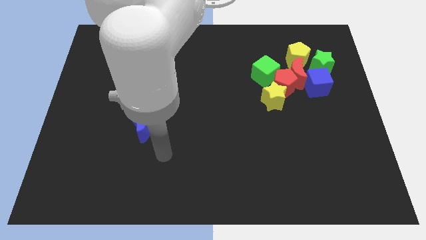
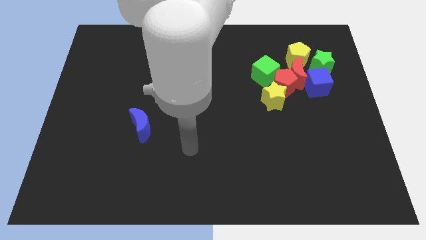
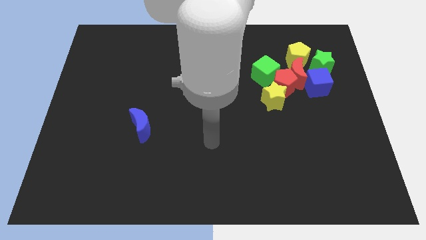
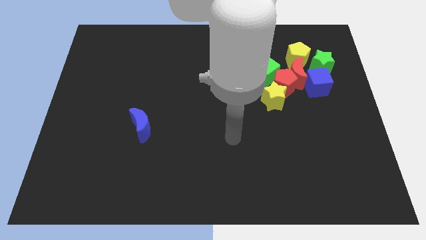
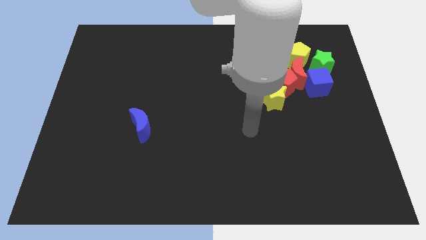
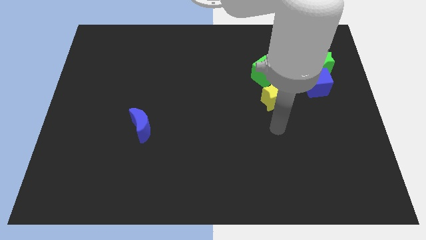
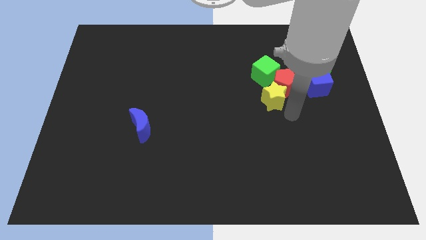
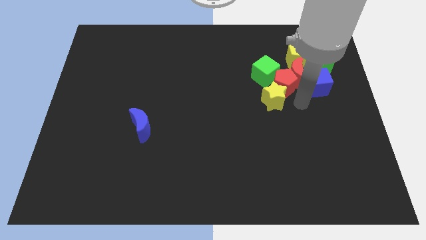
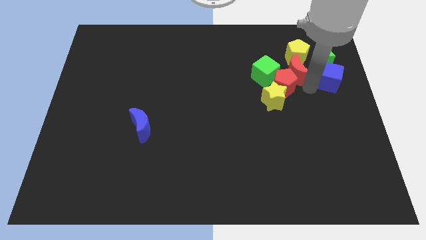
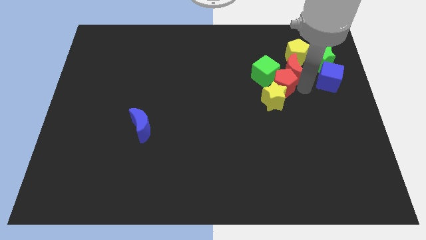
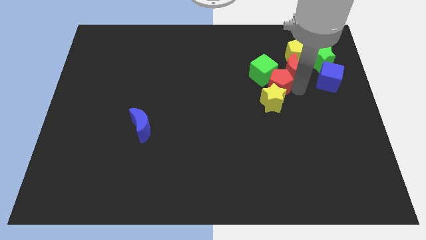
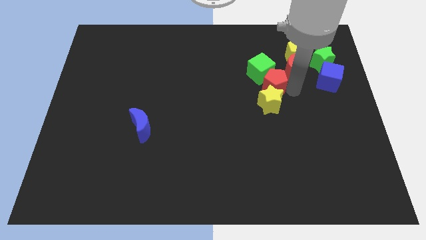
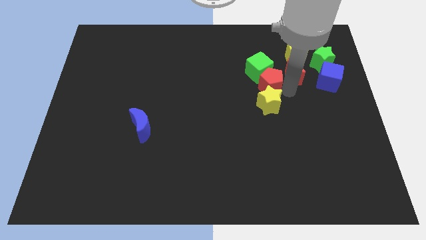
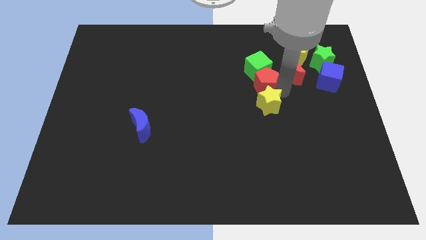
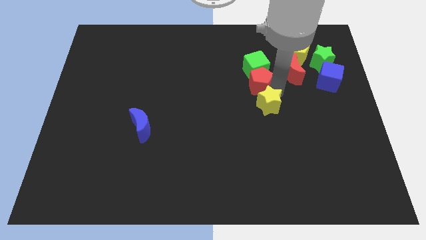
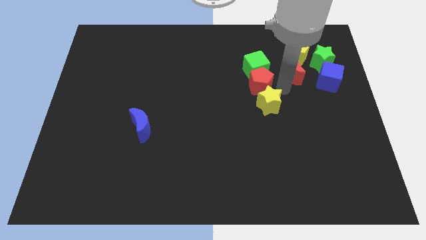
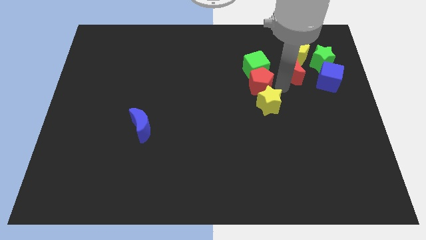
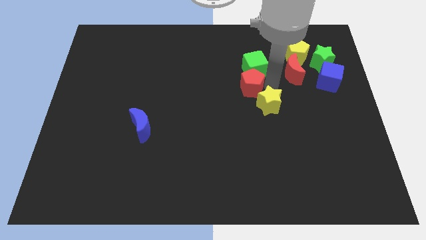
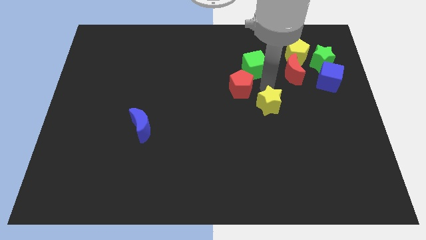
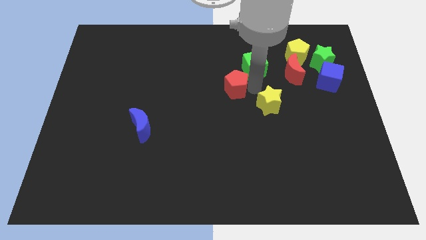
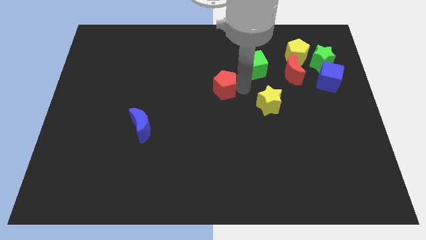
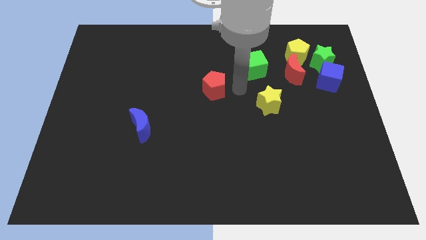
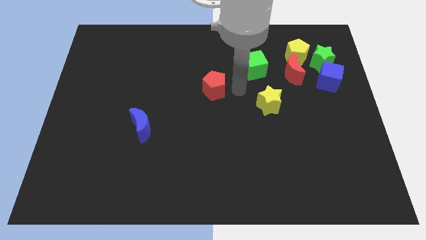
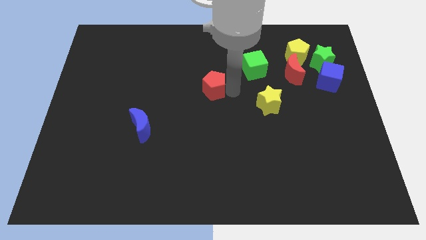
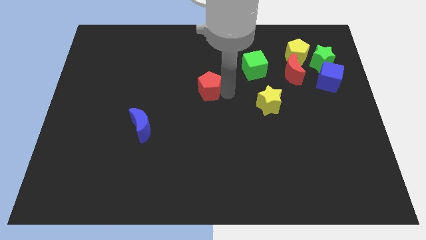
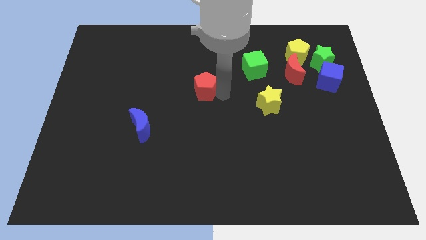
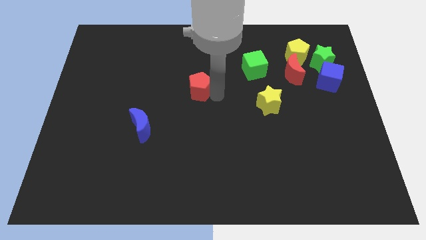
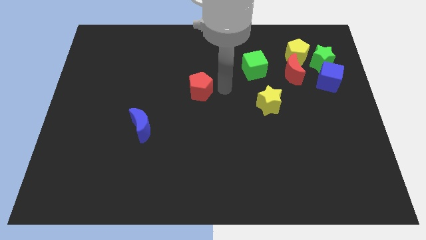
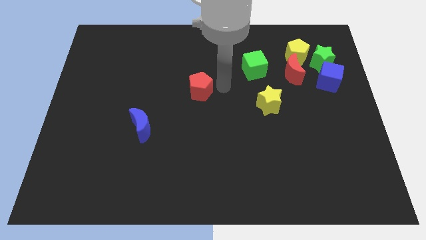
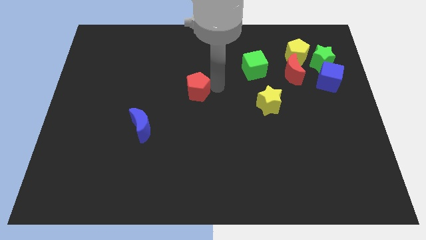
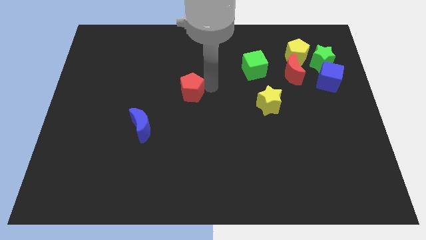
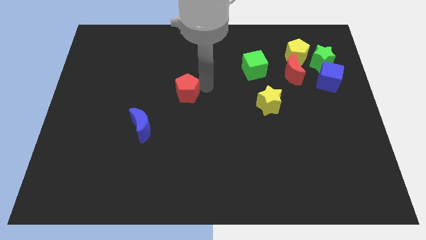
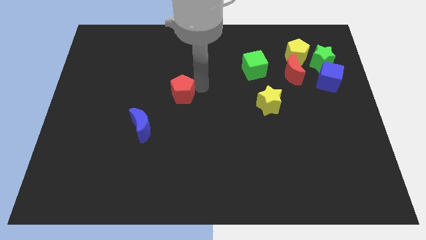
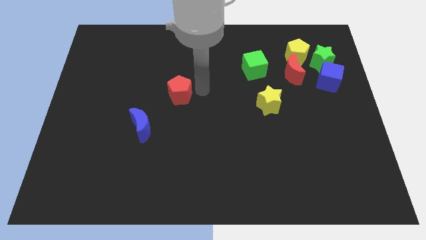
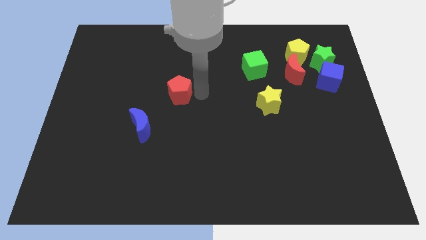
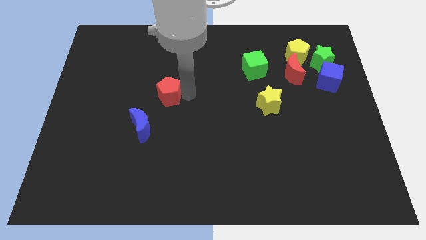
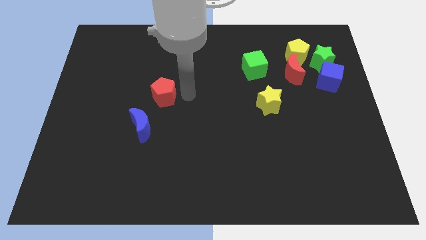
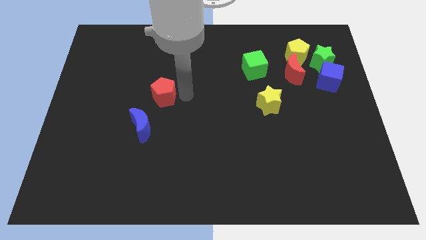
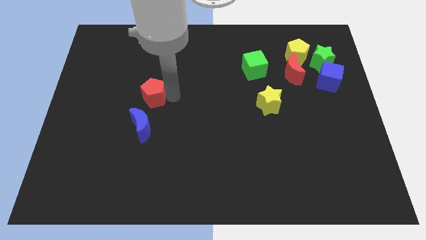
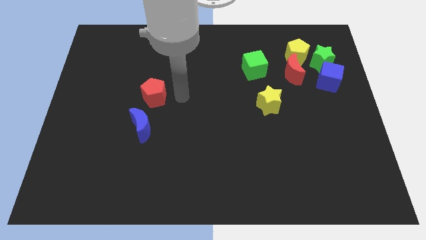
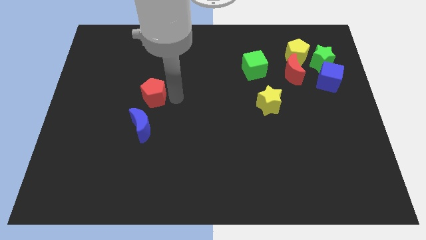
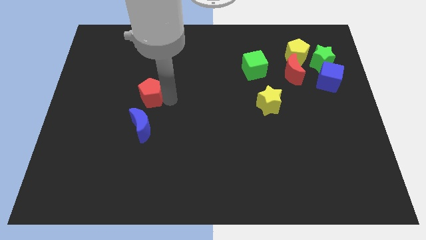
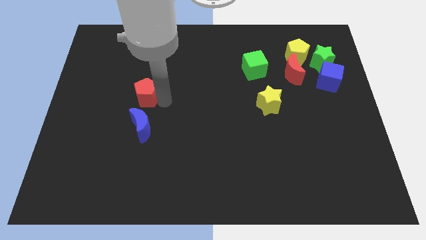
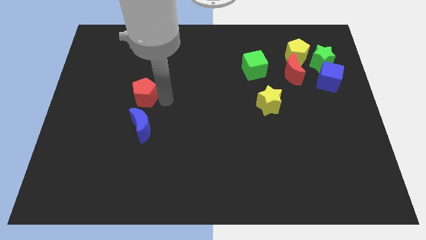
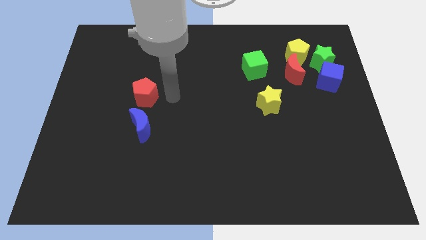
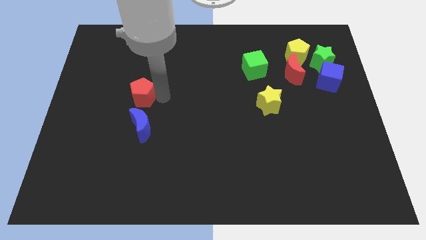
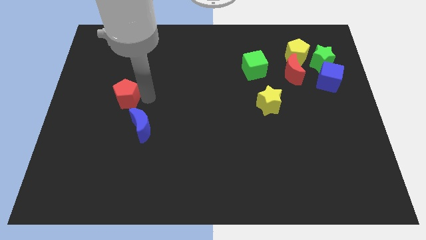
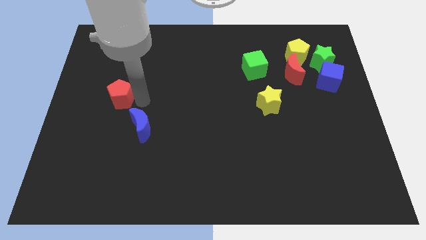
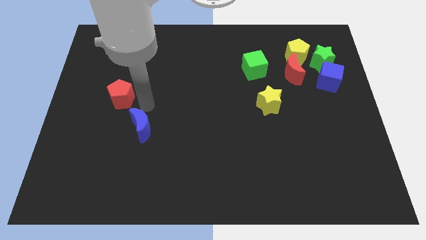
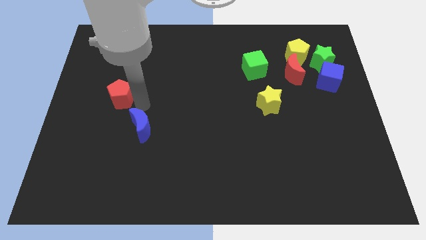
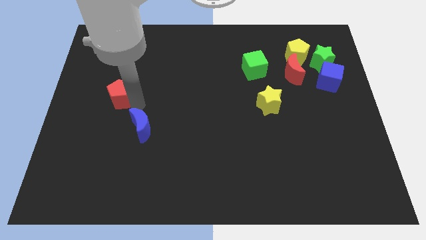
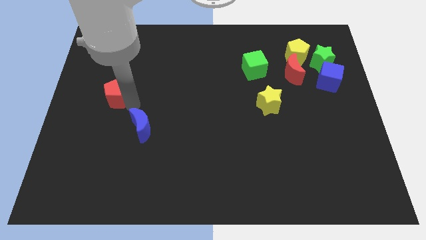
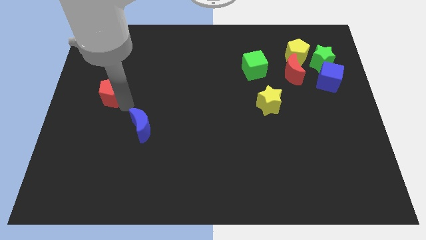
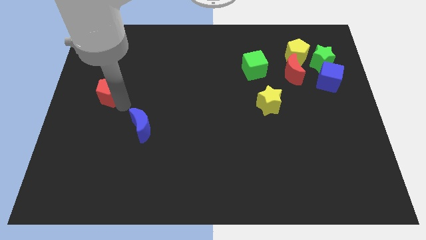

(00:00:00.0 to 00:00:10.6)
put the red pentagon to the center left

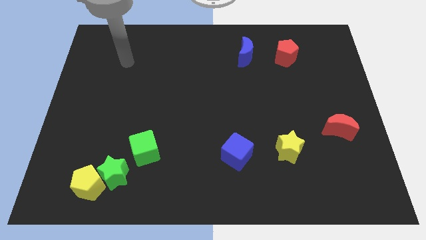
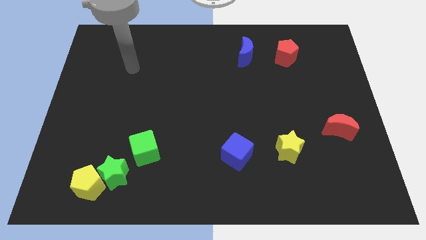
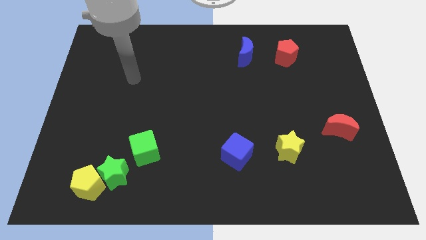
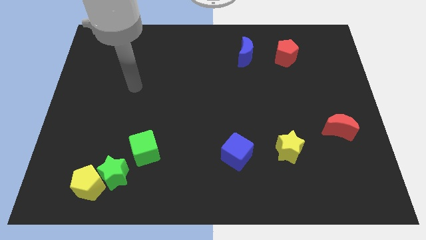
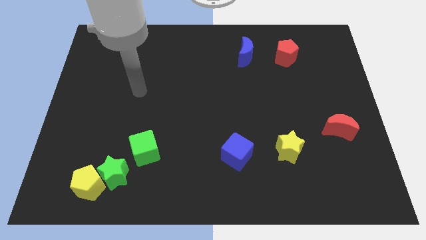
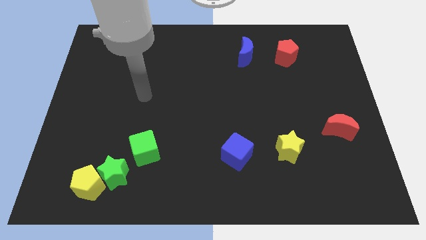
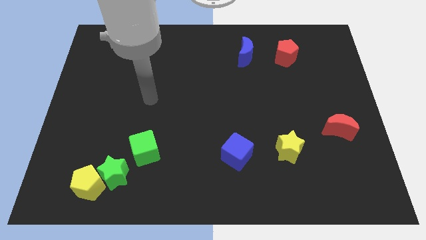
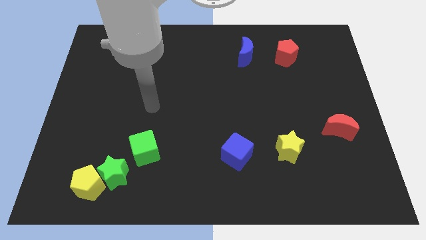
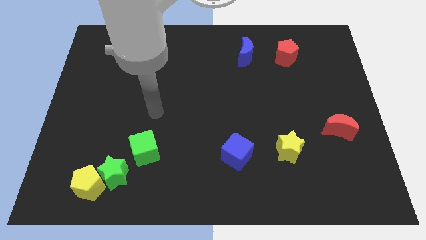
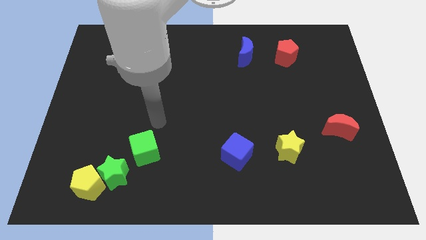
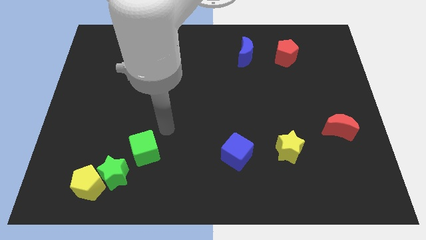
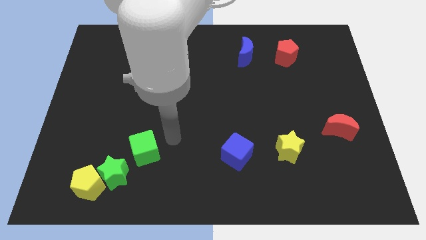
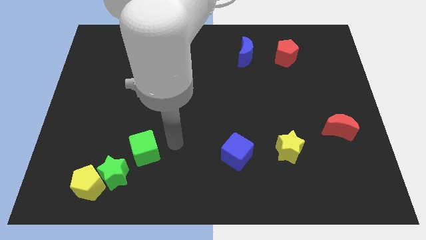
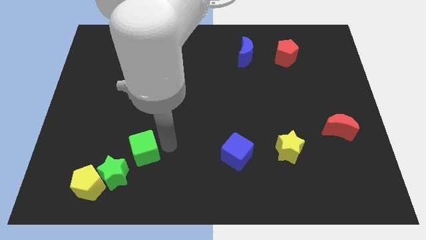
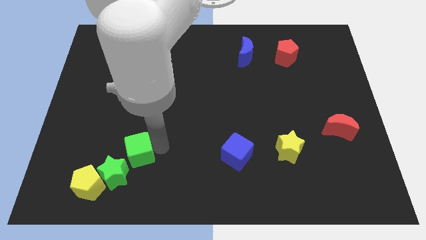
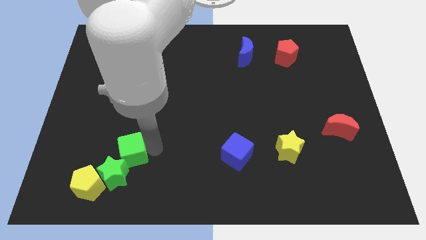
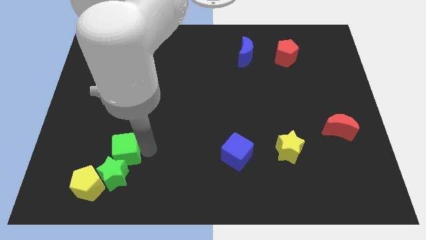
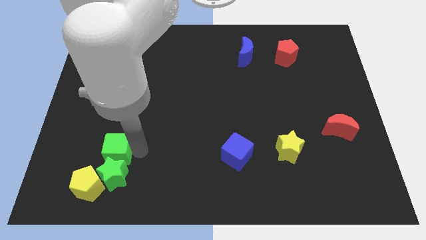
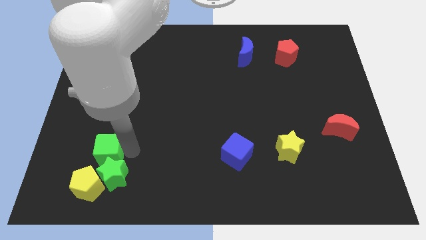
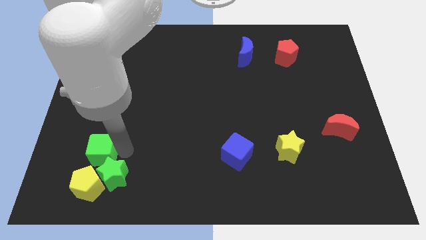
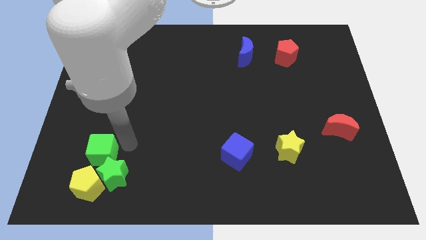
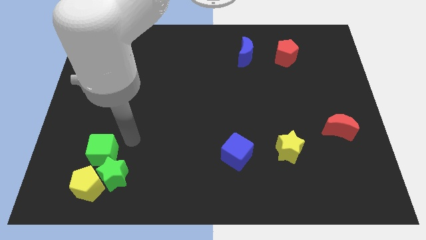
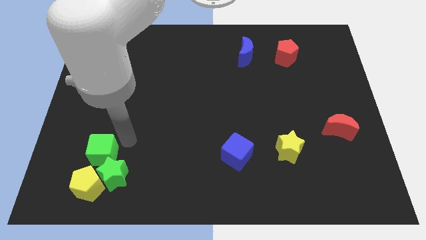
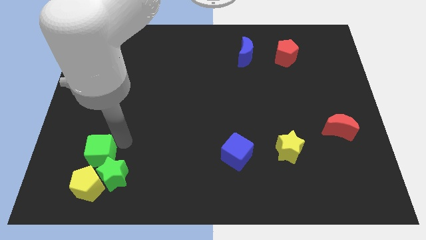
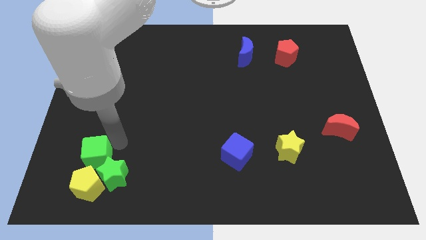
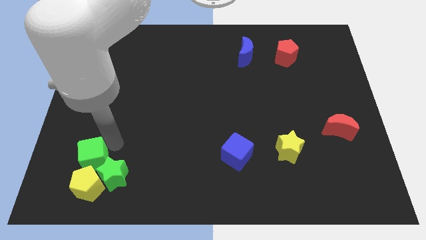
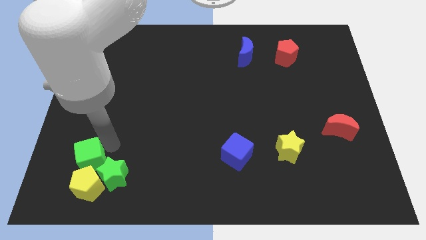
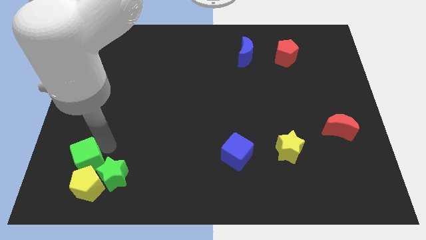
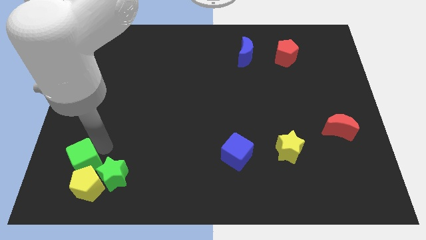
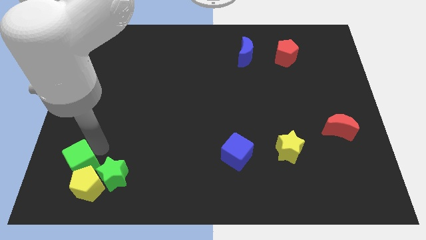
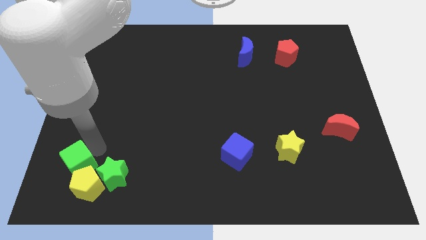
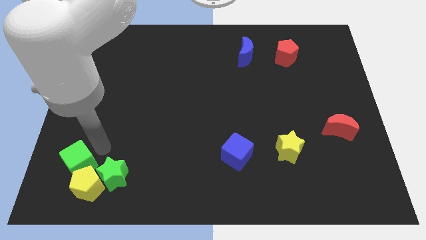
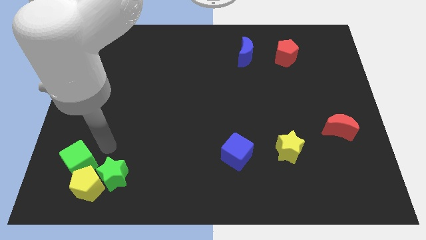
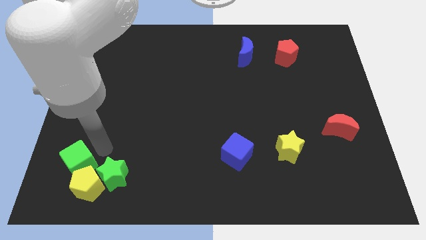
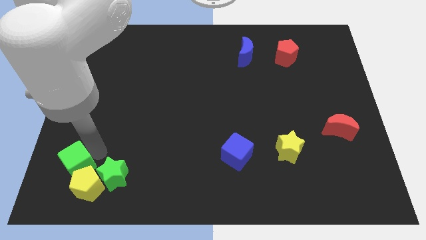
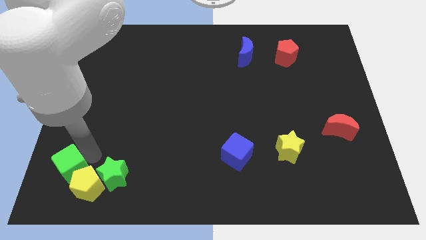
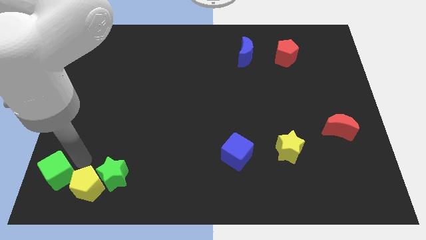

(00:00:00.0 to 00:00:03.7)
put the green cube to the bottom left
